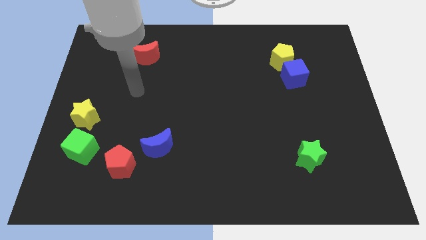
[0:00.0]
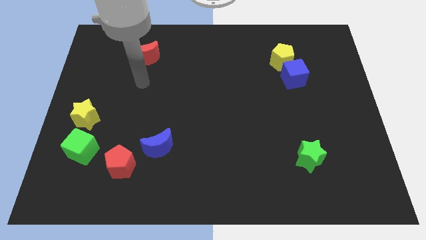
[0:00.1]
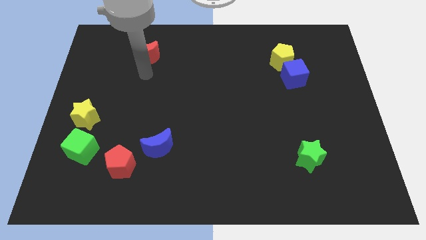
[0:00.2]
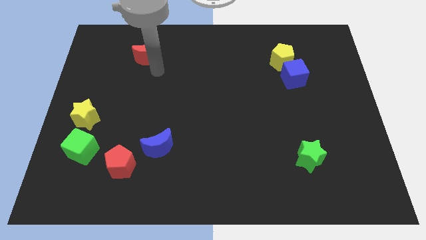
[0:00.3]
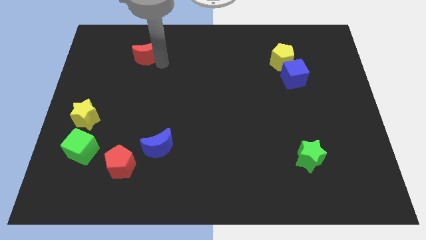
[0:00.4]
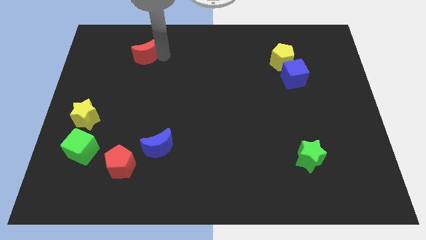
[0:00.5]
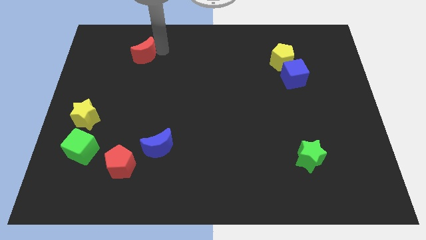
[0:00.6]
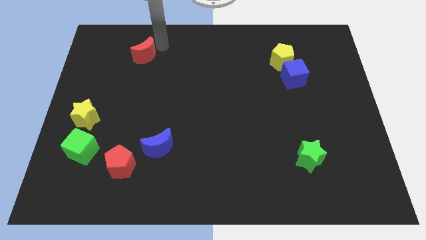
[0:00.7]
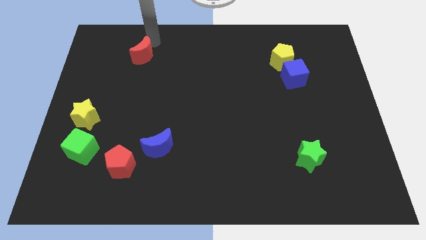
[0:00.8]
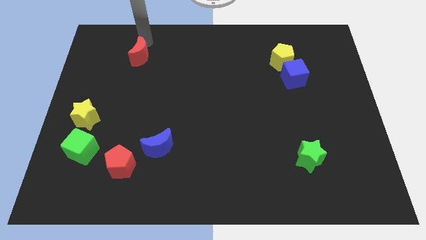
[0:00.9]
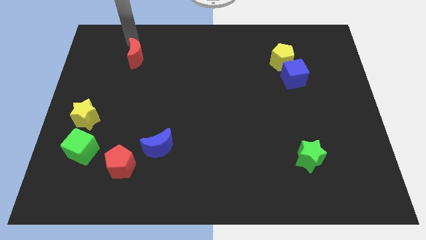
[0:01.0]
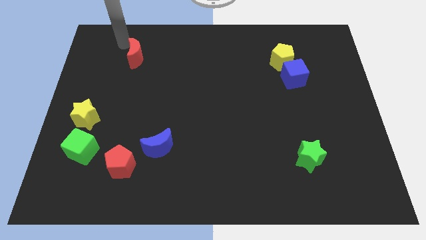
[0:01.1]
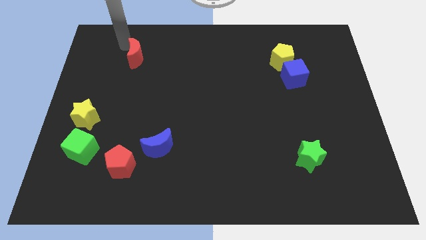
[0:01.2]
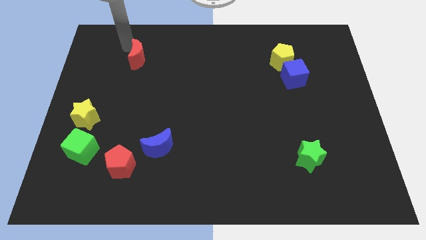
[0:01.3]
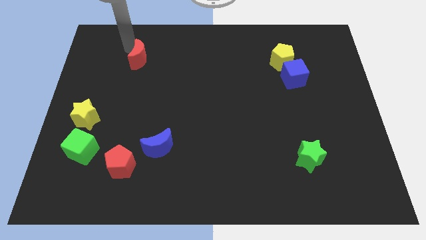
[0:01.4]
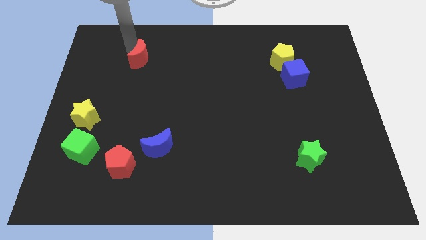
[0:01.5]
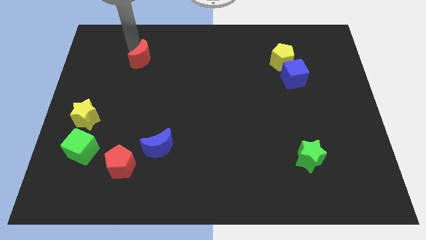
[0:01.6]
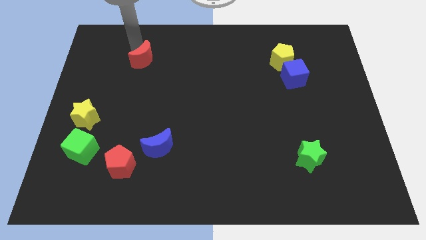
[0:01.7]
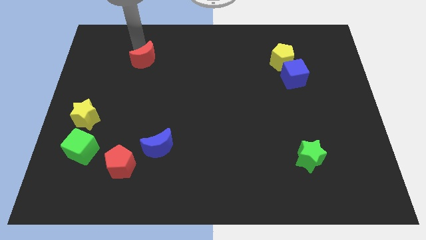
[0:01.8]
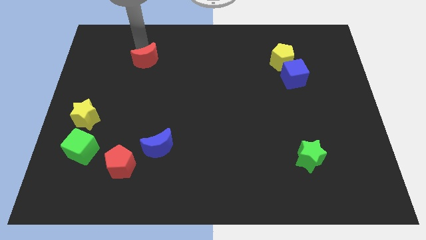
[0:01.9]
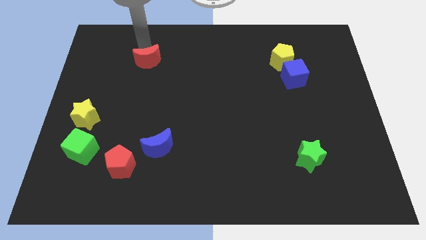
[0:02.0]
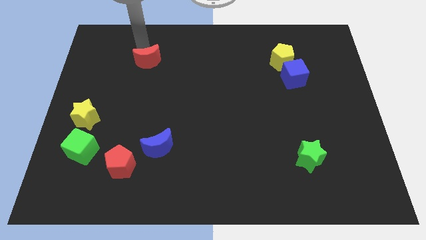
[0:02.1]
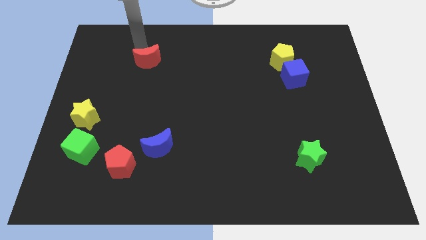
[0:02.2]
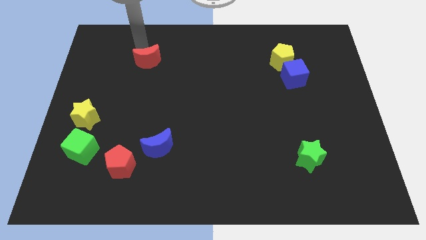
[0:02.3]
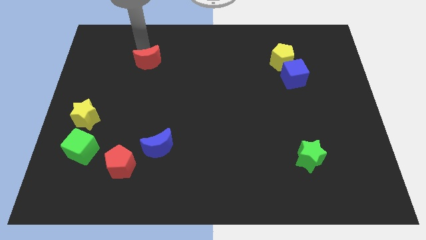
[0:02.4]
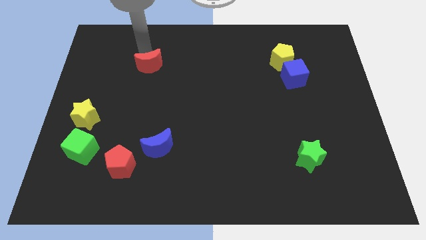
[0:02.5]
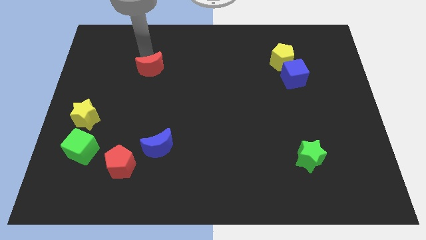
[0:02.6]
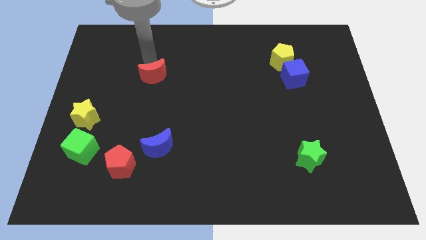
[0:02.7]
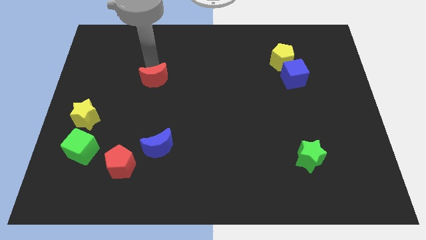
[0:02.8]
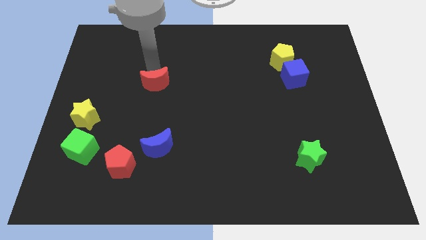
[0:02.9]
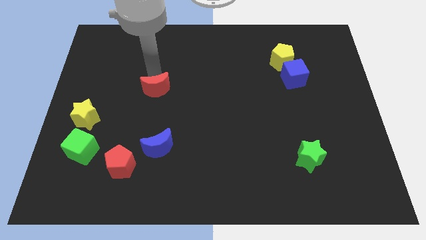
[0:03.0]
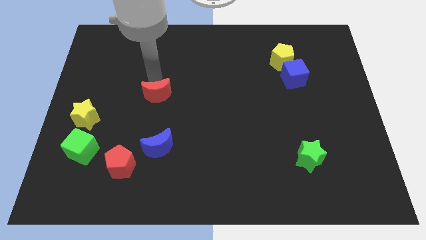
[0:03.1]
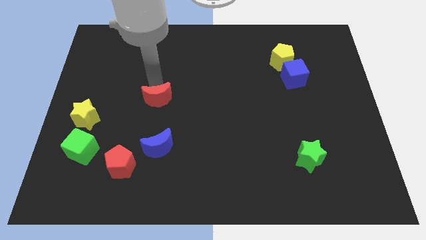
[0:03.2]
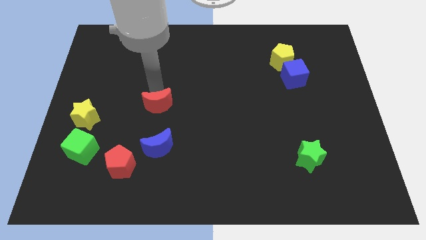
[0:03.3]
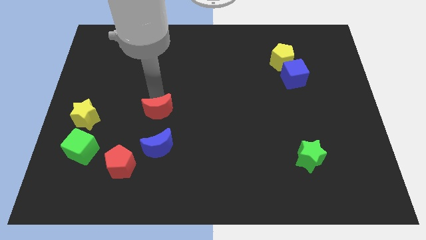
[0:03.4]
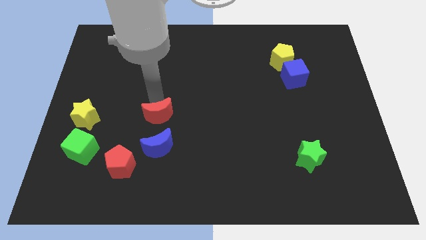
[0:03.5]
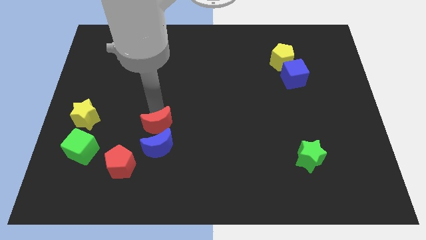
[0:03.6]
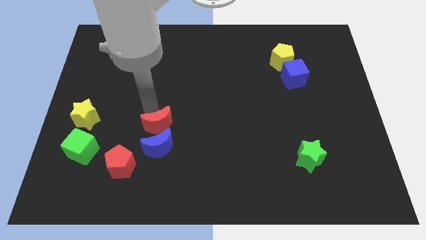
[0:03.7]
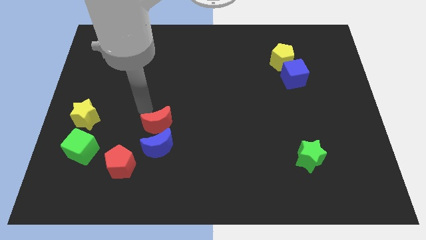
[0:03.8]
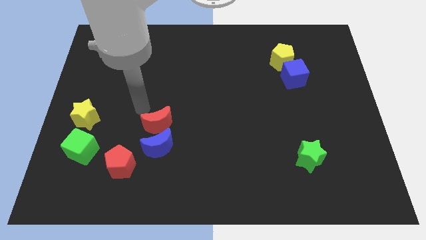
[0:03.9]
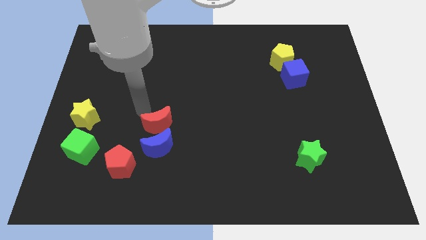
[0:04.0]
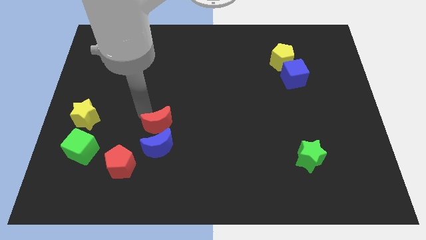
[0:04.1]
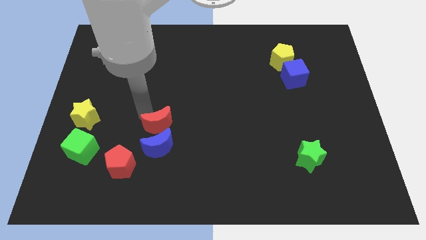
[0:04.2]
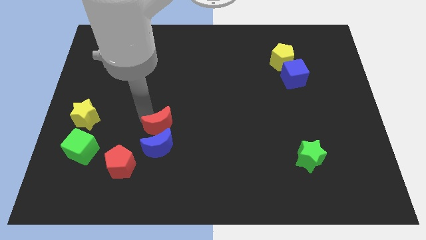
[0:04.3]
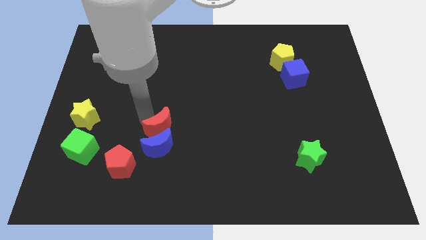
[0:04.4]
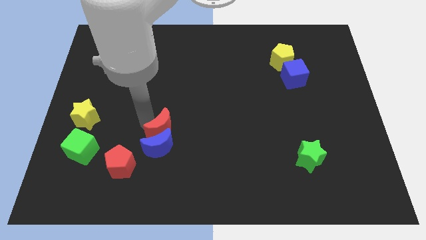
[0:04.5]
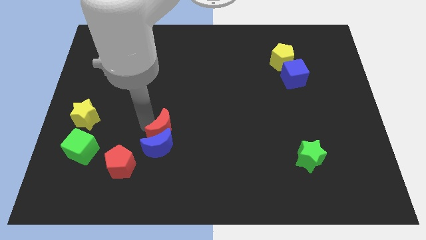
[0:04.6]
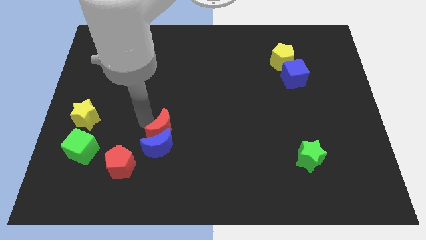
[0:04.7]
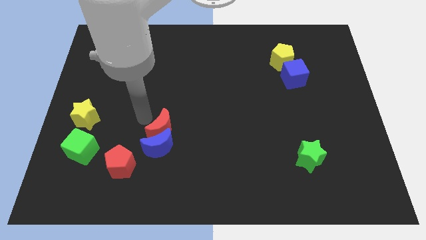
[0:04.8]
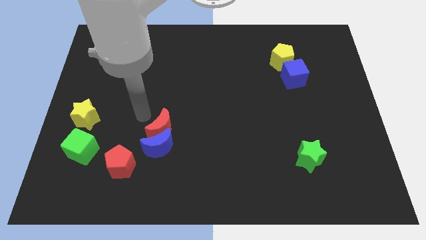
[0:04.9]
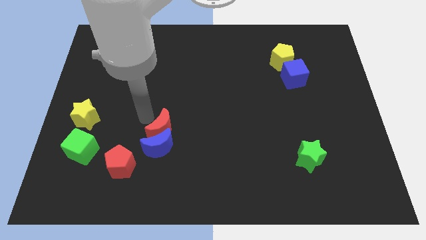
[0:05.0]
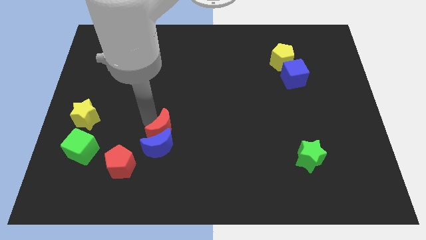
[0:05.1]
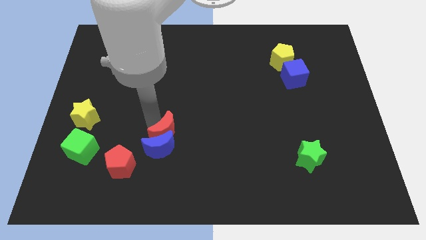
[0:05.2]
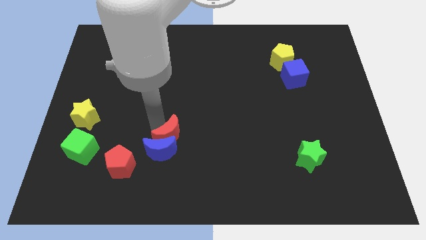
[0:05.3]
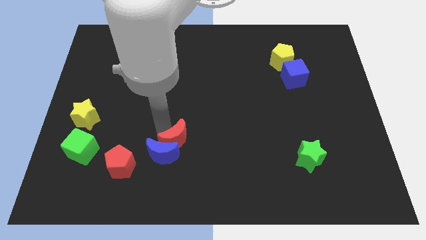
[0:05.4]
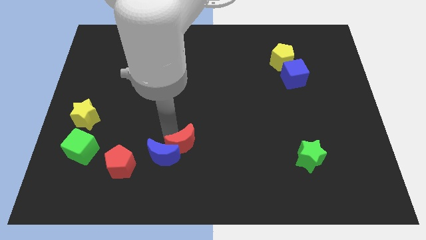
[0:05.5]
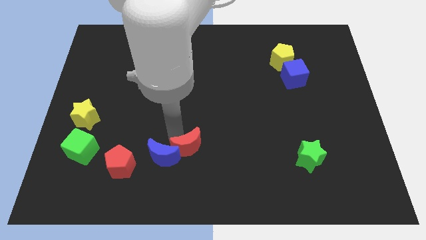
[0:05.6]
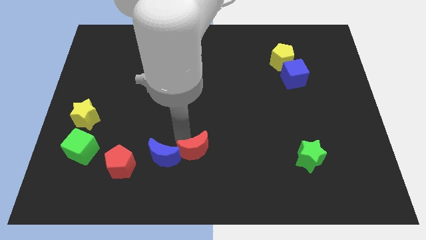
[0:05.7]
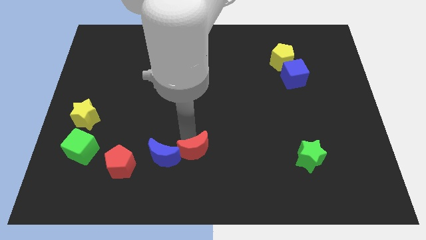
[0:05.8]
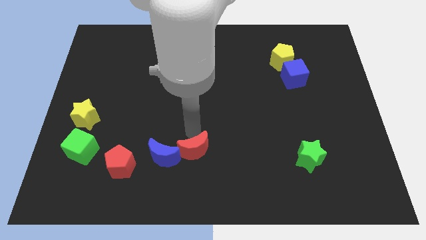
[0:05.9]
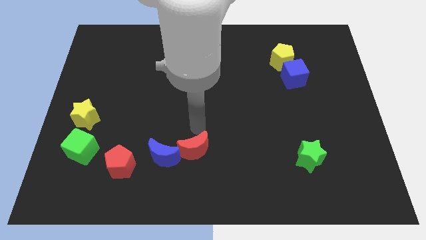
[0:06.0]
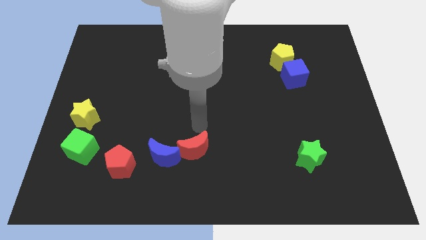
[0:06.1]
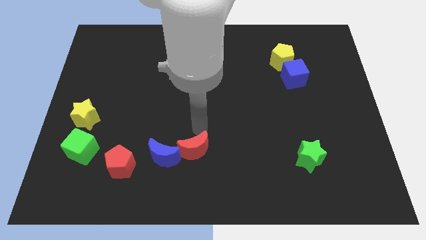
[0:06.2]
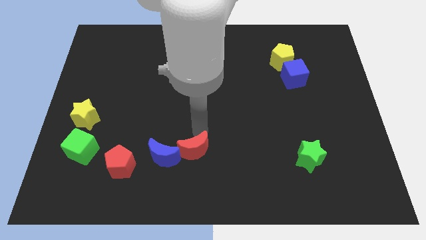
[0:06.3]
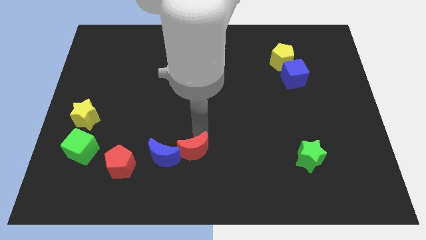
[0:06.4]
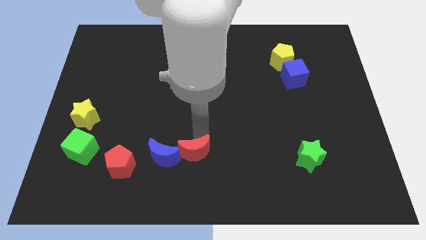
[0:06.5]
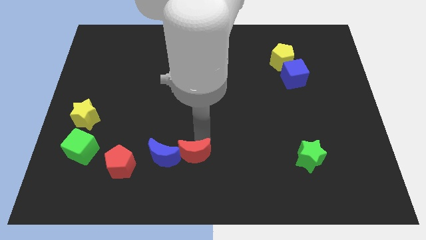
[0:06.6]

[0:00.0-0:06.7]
slide the red moon to the bottom side
